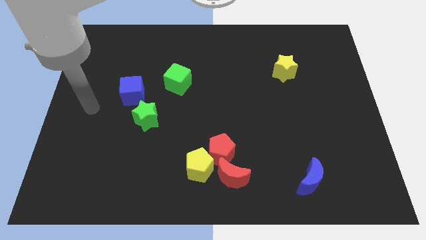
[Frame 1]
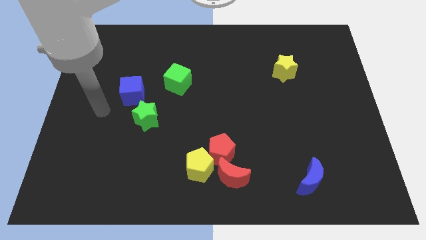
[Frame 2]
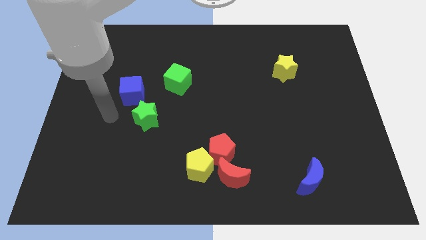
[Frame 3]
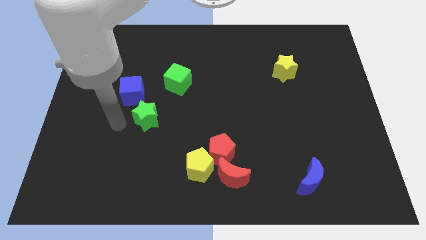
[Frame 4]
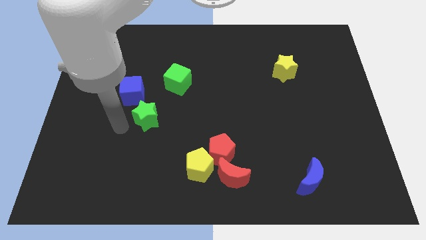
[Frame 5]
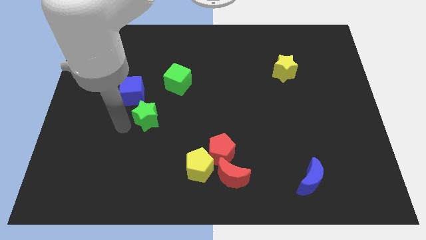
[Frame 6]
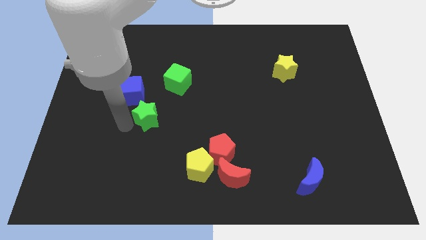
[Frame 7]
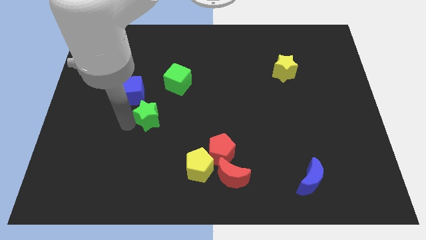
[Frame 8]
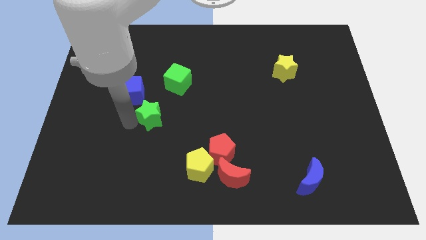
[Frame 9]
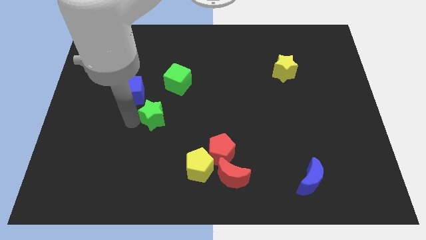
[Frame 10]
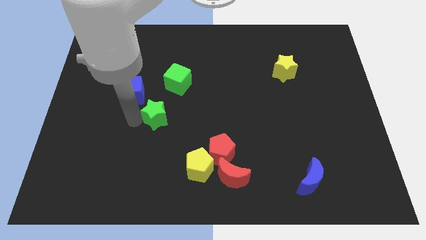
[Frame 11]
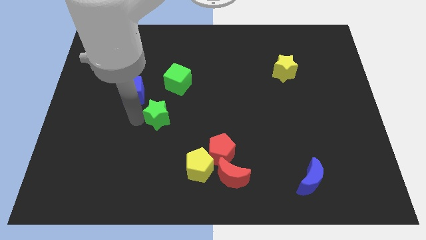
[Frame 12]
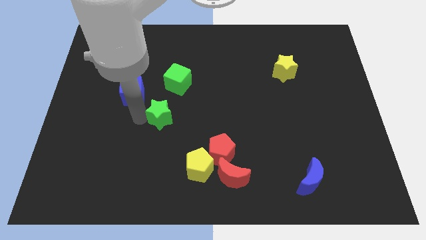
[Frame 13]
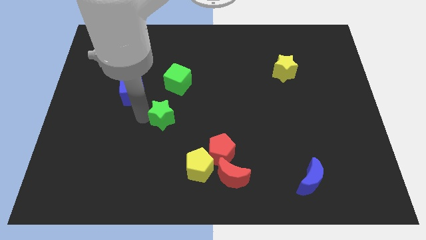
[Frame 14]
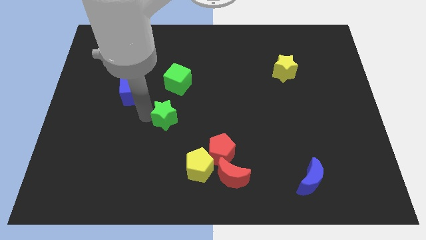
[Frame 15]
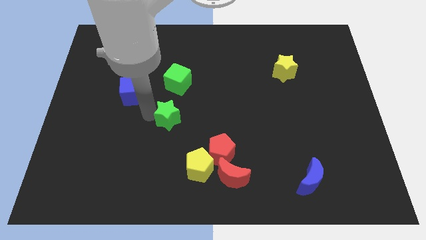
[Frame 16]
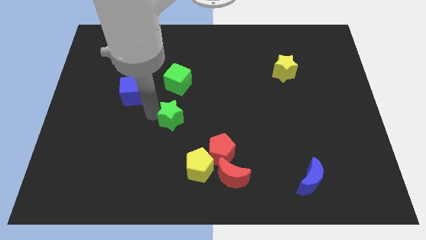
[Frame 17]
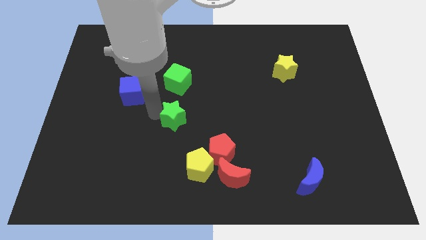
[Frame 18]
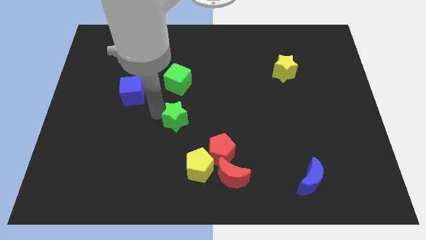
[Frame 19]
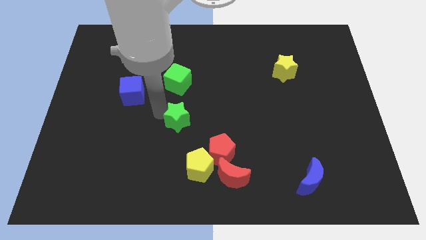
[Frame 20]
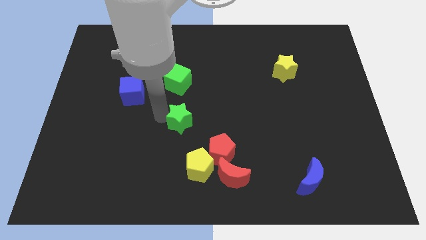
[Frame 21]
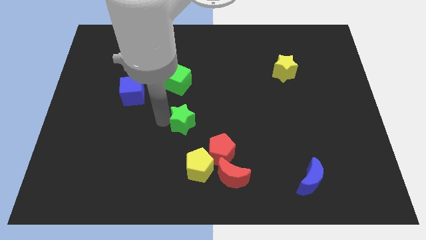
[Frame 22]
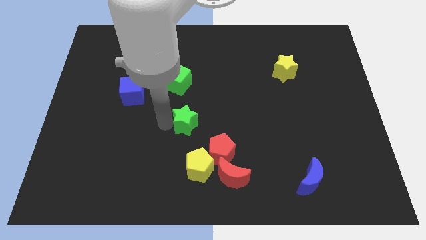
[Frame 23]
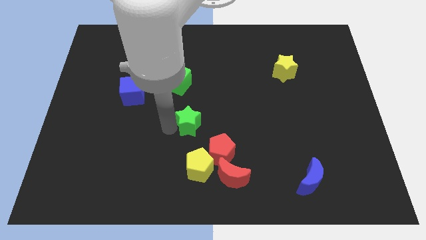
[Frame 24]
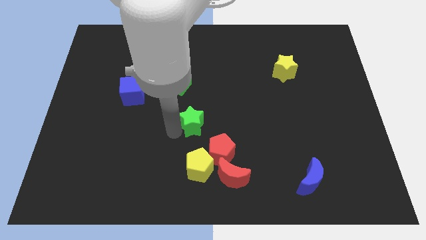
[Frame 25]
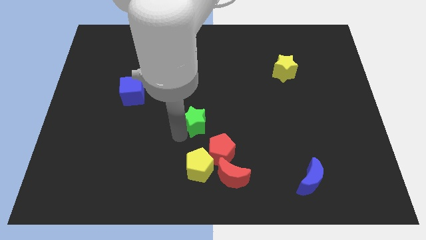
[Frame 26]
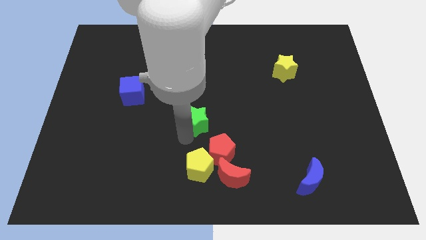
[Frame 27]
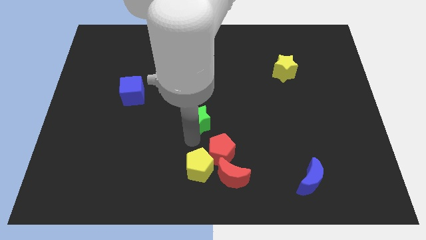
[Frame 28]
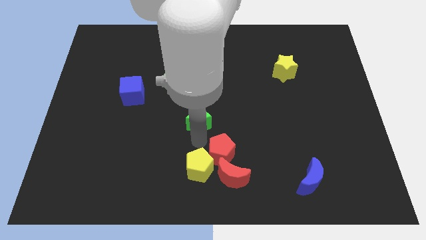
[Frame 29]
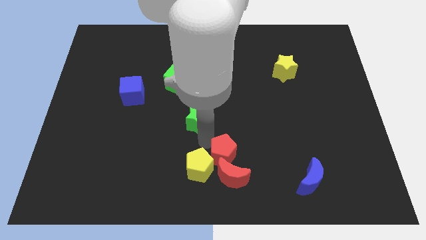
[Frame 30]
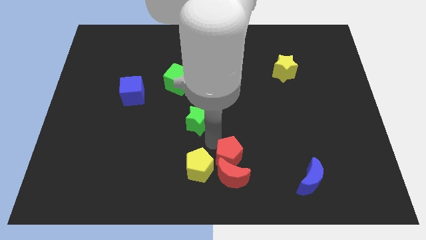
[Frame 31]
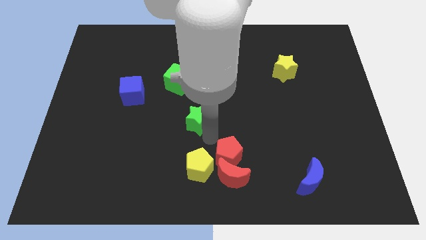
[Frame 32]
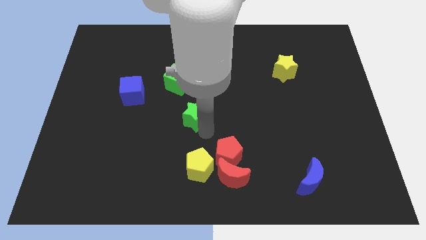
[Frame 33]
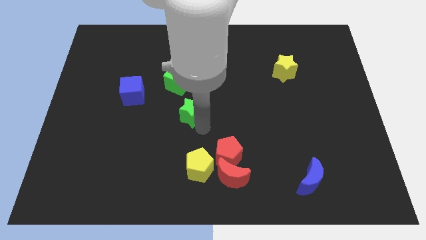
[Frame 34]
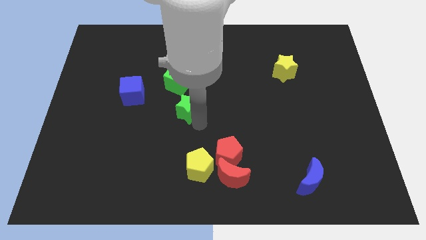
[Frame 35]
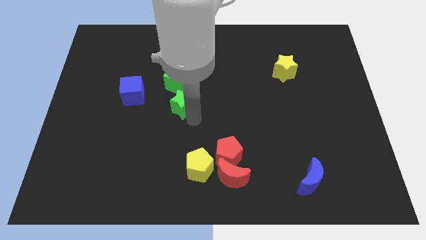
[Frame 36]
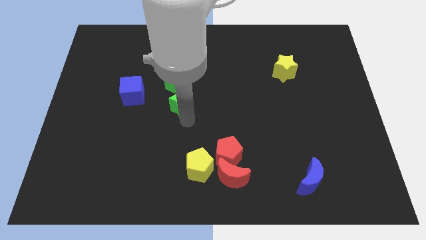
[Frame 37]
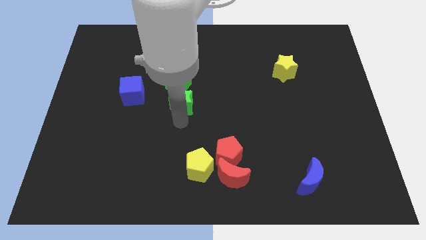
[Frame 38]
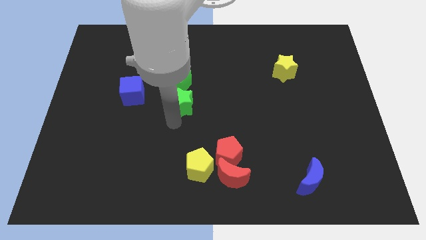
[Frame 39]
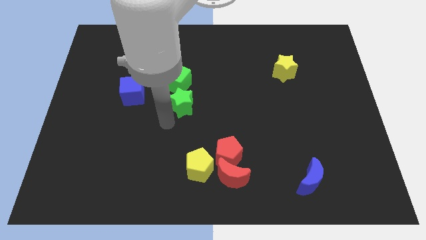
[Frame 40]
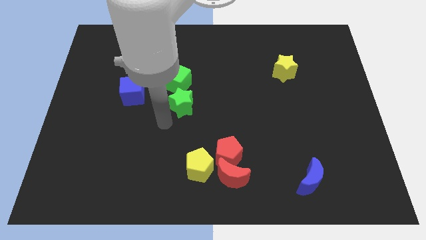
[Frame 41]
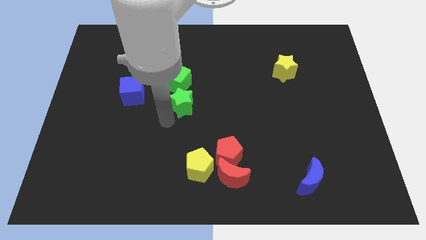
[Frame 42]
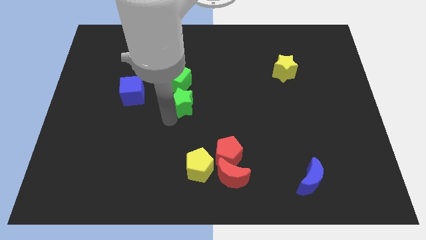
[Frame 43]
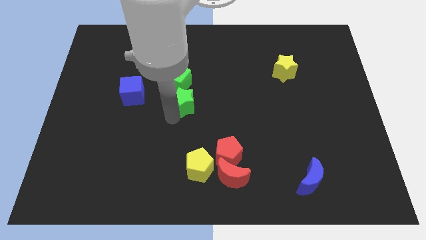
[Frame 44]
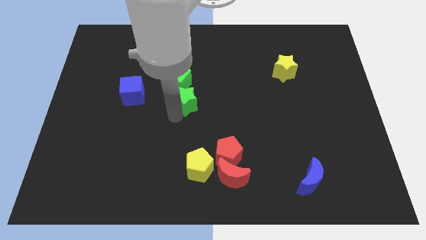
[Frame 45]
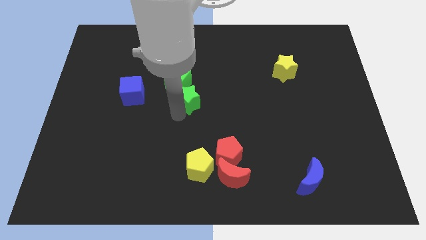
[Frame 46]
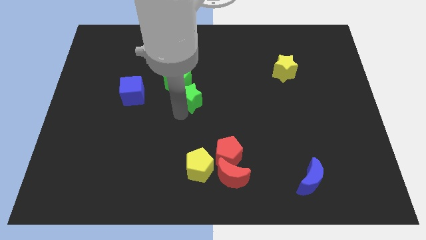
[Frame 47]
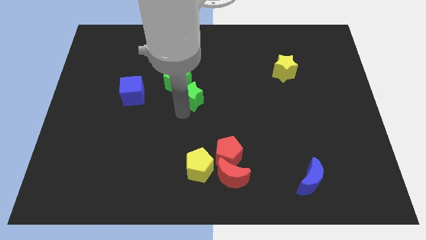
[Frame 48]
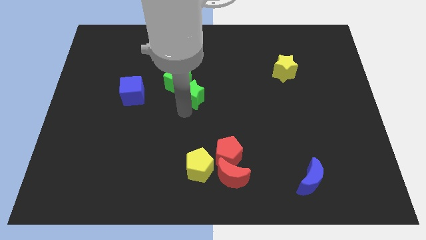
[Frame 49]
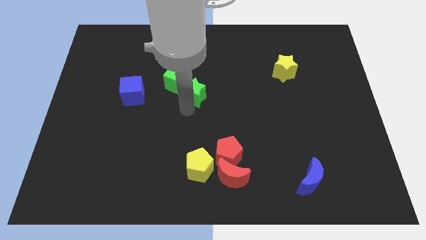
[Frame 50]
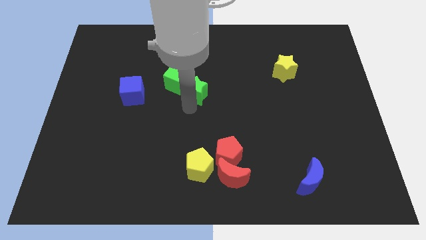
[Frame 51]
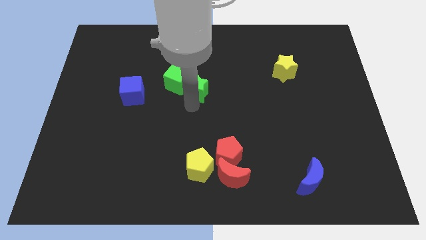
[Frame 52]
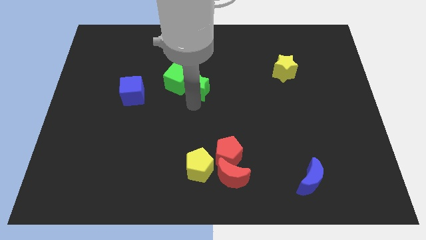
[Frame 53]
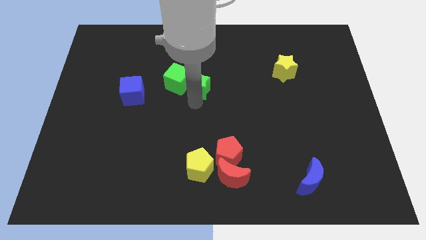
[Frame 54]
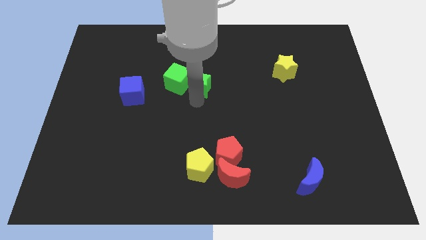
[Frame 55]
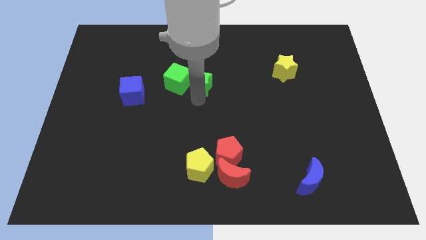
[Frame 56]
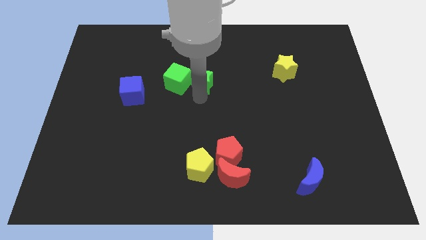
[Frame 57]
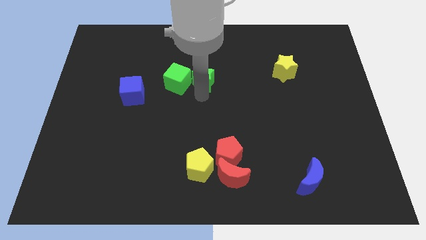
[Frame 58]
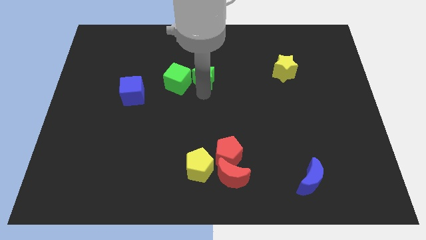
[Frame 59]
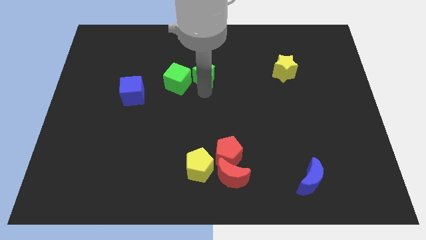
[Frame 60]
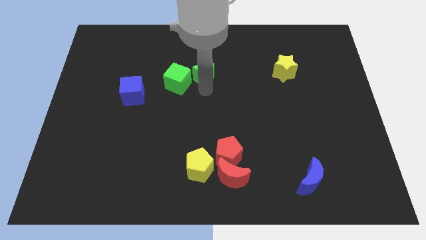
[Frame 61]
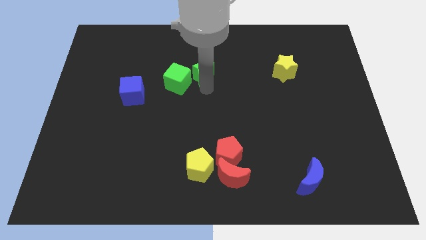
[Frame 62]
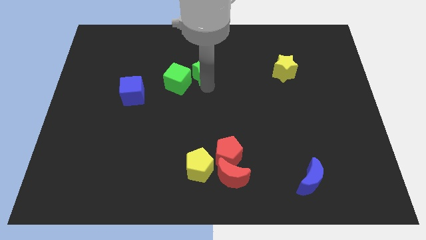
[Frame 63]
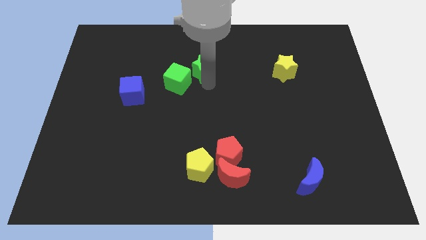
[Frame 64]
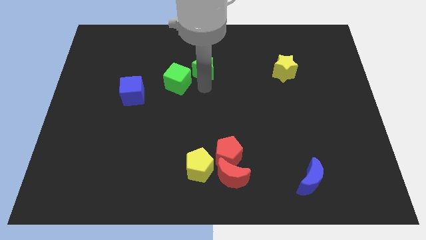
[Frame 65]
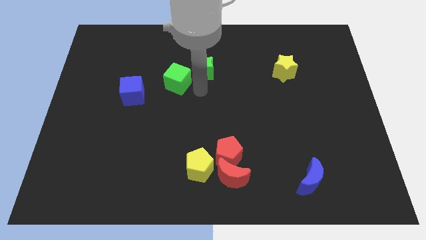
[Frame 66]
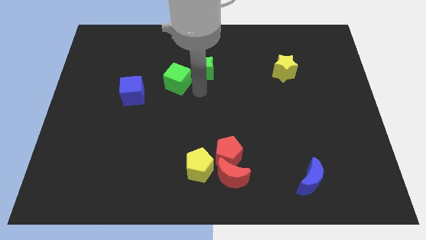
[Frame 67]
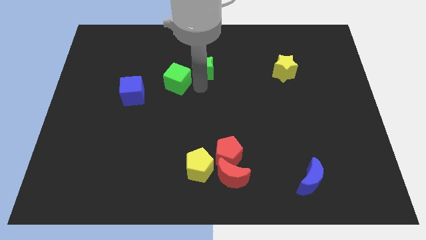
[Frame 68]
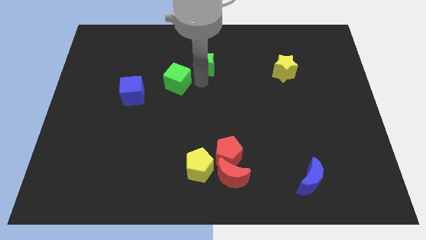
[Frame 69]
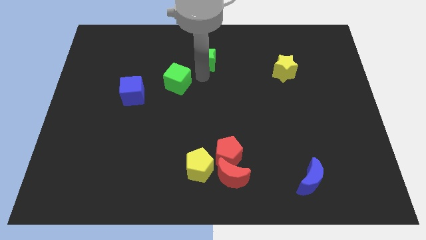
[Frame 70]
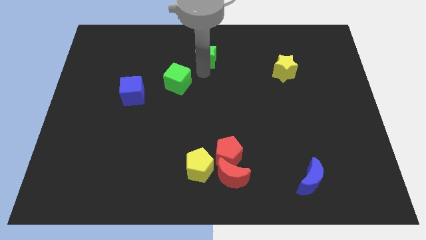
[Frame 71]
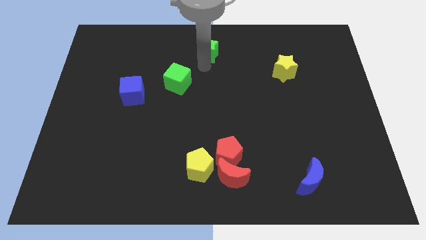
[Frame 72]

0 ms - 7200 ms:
slide the green star to the towards your base
